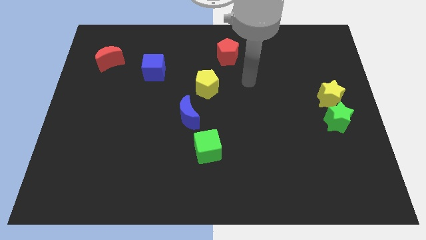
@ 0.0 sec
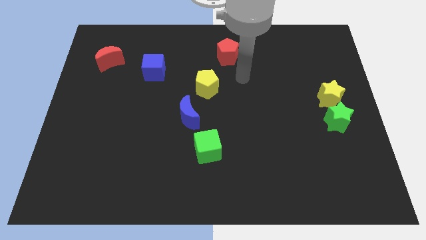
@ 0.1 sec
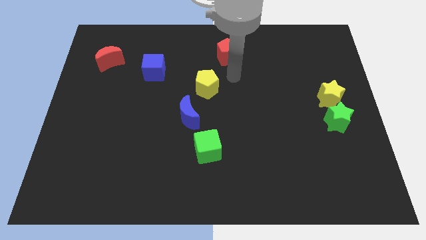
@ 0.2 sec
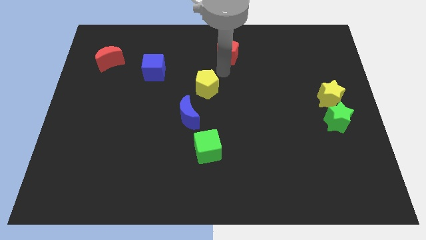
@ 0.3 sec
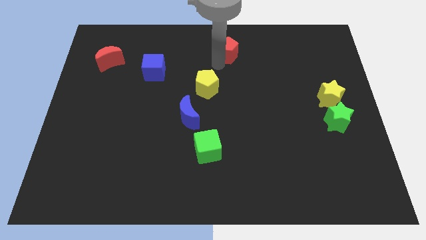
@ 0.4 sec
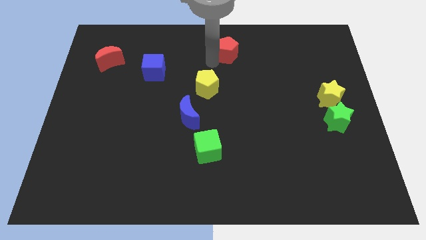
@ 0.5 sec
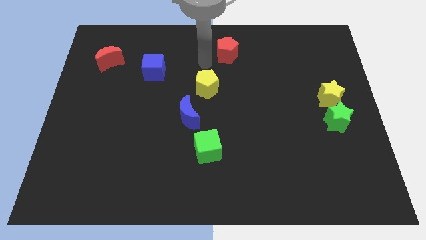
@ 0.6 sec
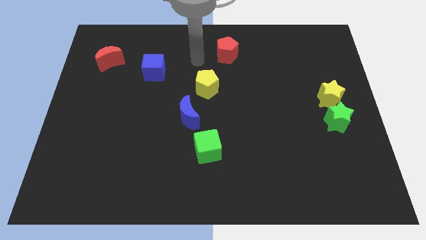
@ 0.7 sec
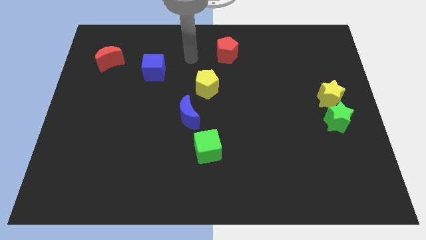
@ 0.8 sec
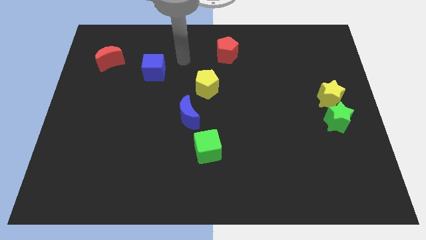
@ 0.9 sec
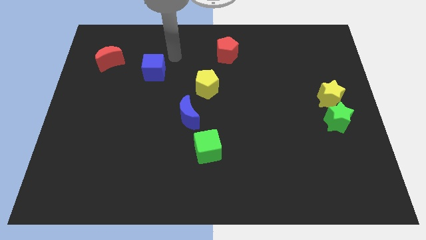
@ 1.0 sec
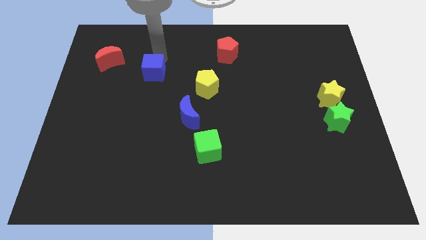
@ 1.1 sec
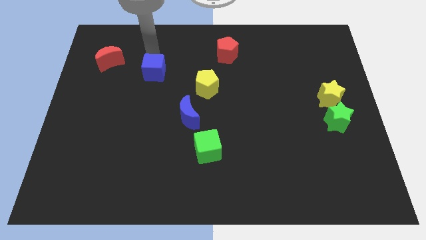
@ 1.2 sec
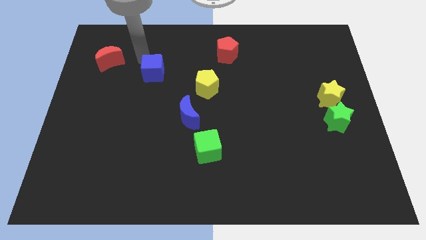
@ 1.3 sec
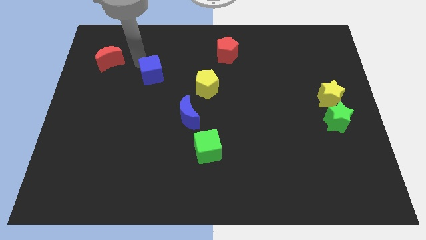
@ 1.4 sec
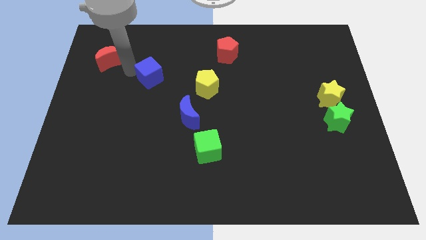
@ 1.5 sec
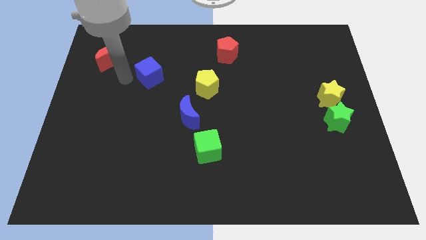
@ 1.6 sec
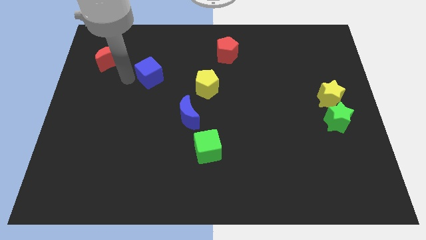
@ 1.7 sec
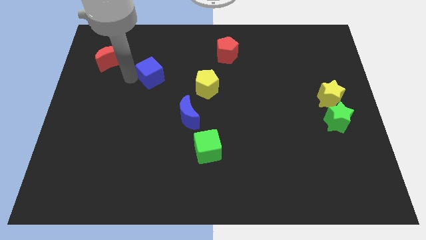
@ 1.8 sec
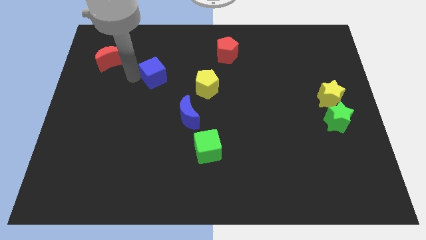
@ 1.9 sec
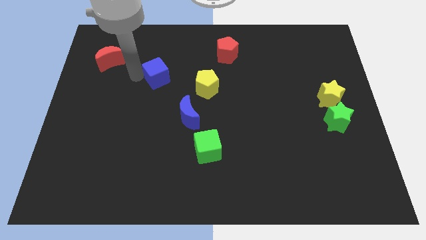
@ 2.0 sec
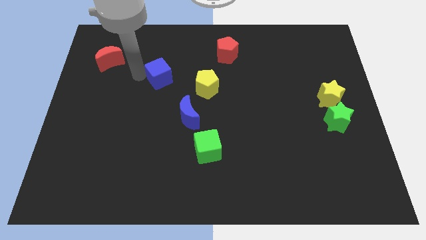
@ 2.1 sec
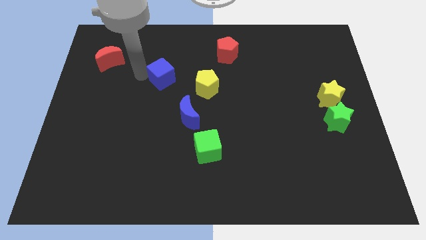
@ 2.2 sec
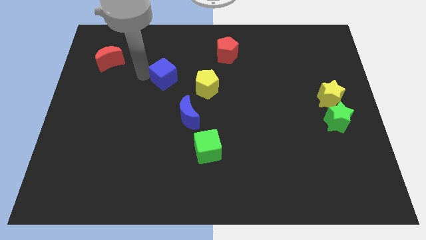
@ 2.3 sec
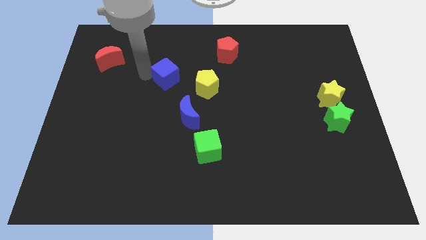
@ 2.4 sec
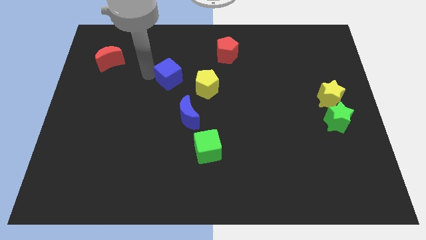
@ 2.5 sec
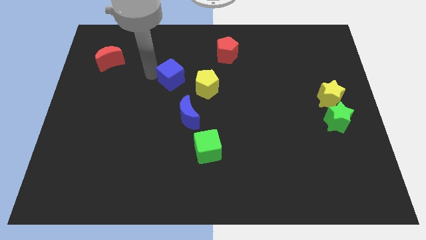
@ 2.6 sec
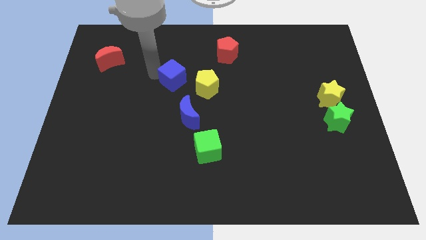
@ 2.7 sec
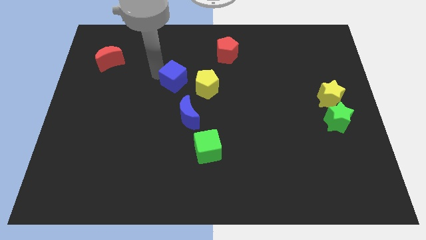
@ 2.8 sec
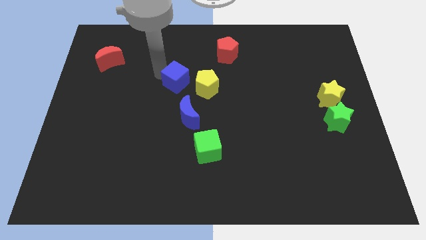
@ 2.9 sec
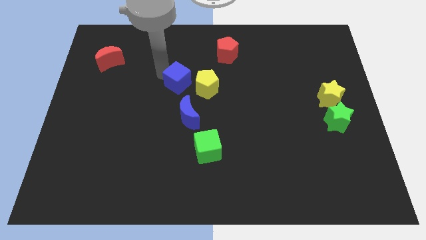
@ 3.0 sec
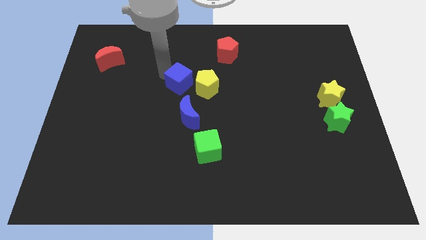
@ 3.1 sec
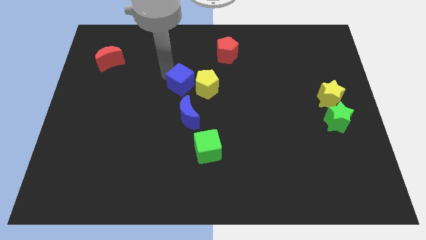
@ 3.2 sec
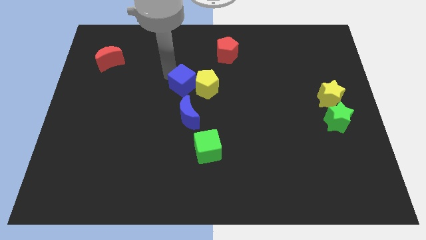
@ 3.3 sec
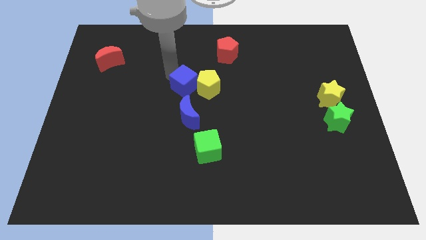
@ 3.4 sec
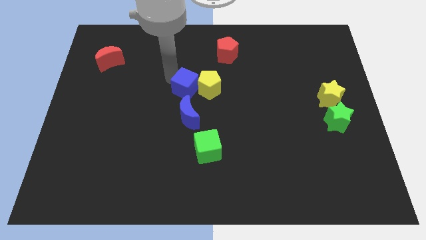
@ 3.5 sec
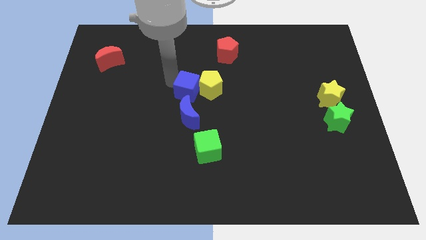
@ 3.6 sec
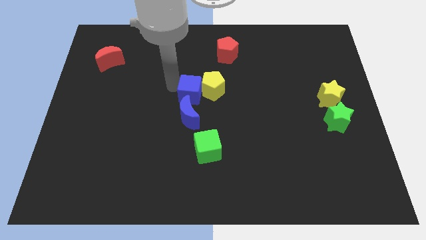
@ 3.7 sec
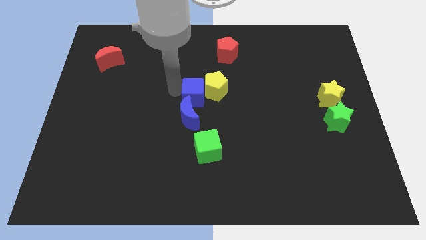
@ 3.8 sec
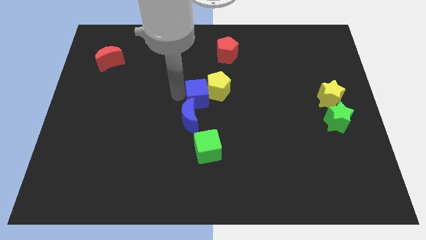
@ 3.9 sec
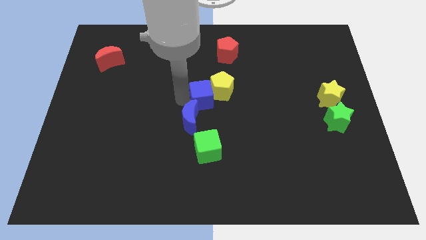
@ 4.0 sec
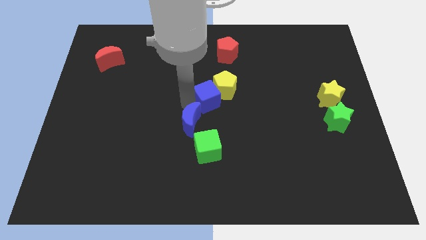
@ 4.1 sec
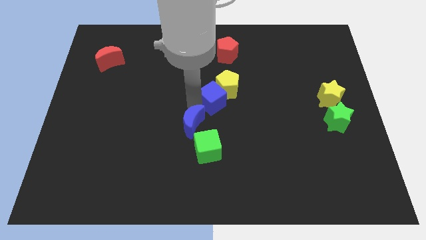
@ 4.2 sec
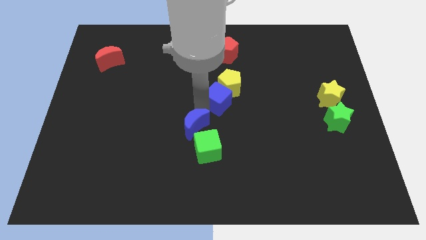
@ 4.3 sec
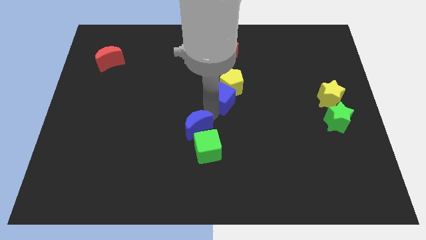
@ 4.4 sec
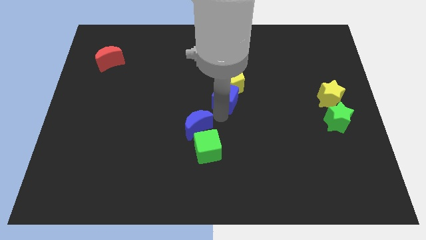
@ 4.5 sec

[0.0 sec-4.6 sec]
move the blue cube below the red pentagon

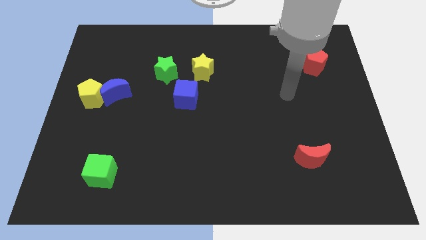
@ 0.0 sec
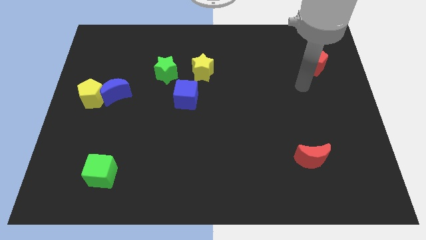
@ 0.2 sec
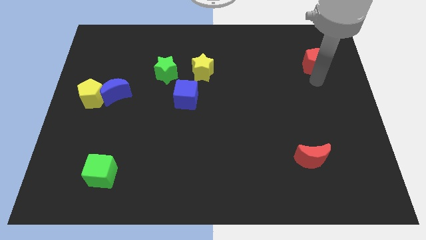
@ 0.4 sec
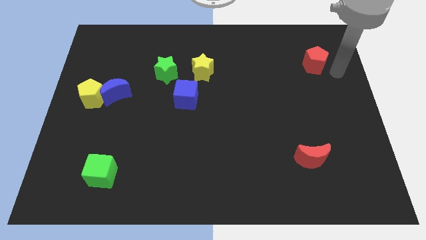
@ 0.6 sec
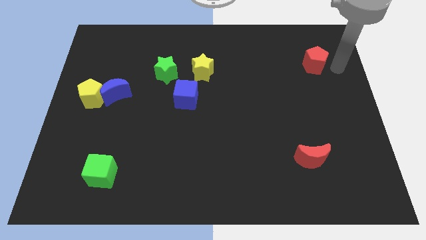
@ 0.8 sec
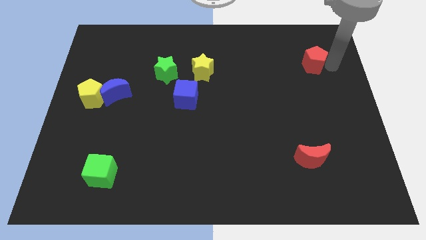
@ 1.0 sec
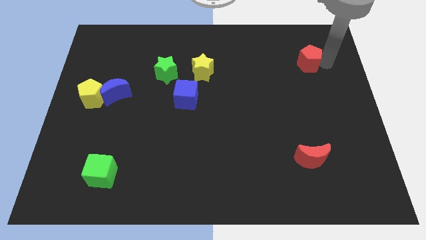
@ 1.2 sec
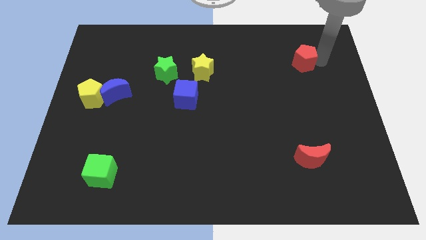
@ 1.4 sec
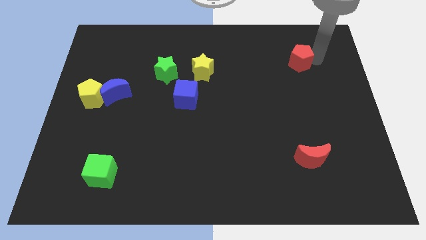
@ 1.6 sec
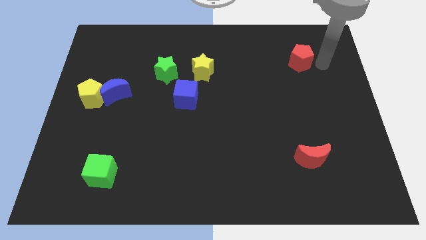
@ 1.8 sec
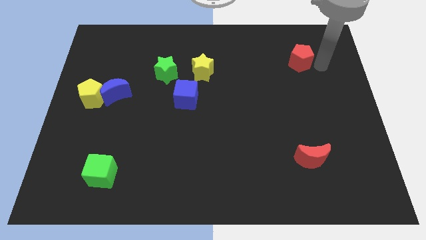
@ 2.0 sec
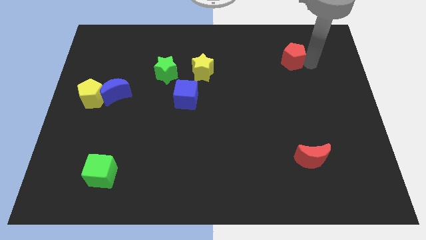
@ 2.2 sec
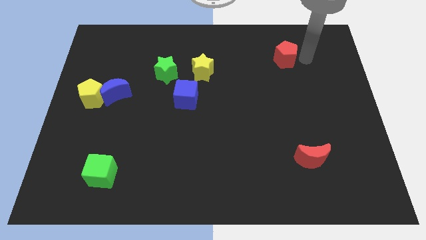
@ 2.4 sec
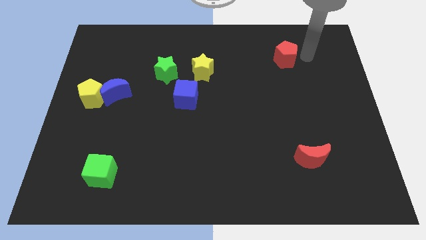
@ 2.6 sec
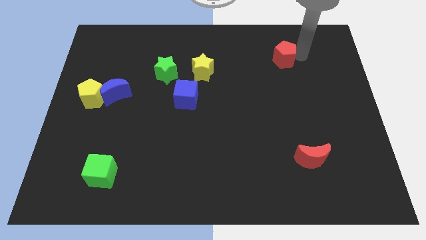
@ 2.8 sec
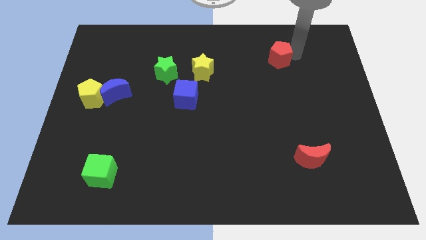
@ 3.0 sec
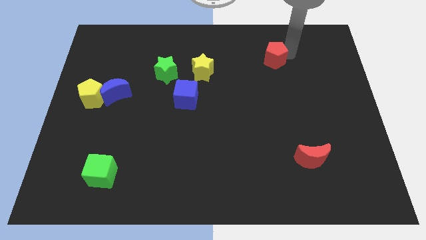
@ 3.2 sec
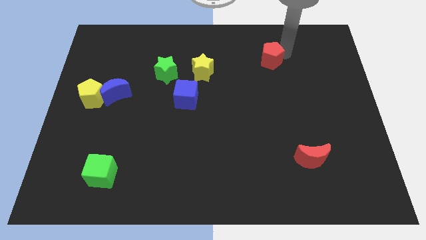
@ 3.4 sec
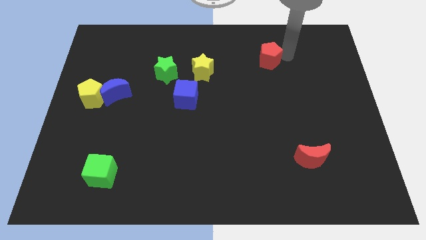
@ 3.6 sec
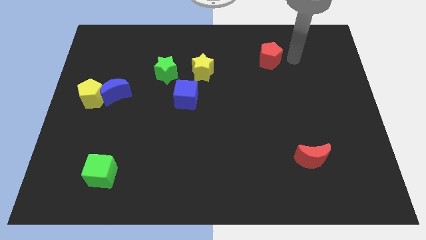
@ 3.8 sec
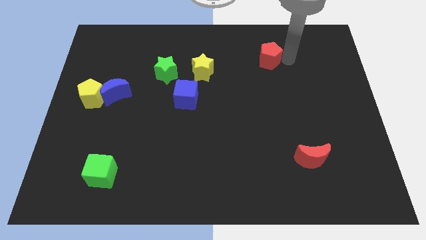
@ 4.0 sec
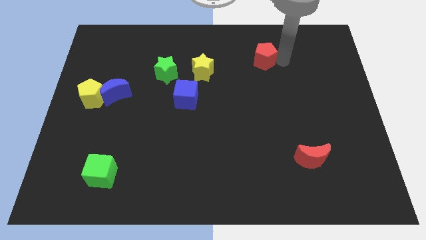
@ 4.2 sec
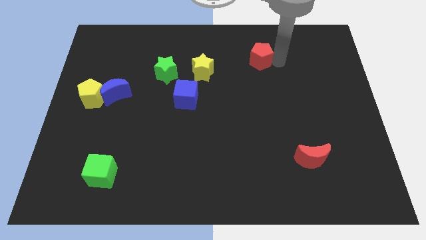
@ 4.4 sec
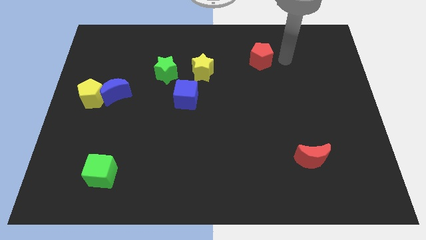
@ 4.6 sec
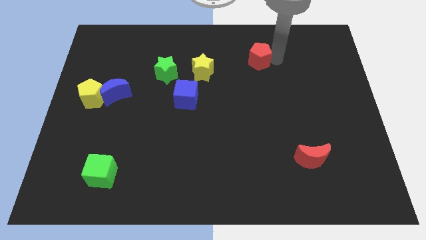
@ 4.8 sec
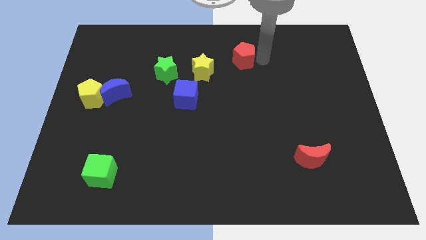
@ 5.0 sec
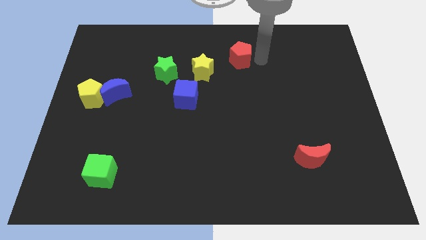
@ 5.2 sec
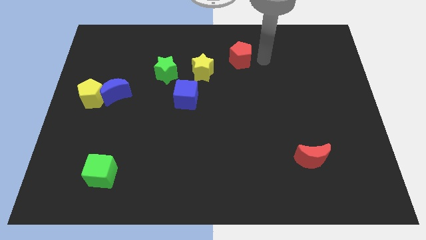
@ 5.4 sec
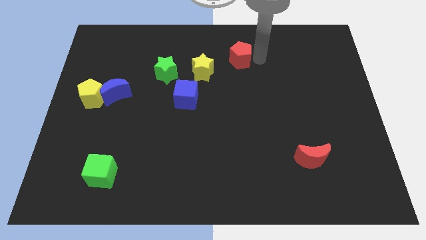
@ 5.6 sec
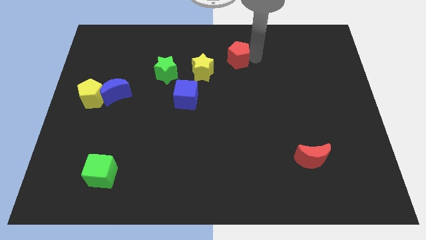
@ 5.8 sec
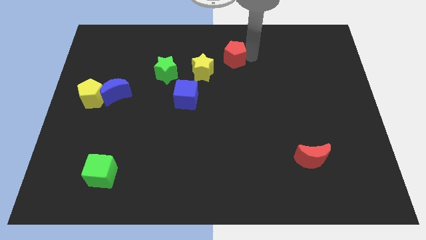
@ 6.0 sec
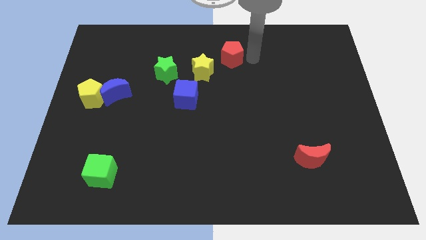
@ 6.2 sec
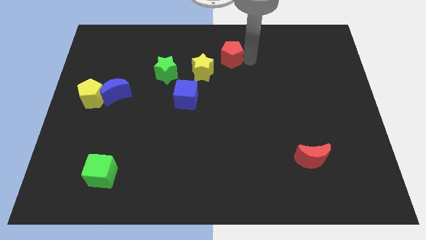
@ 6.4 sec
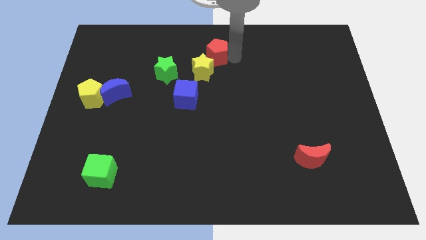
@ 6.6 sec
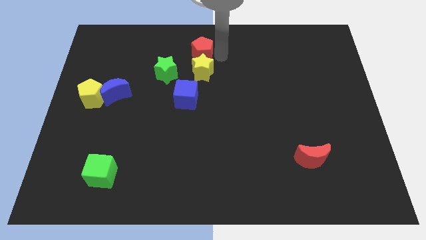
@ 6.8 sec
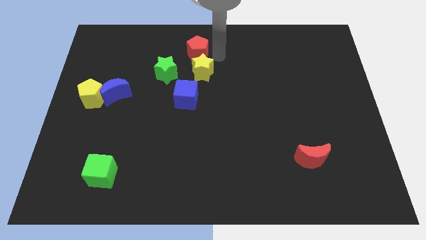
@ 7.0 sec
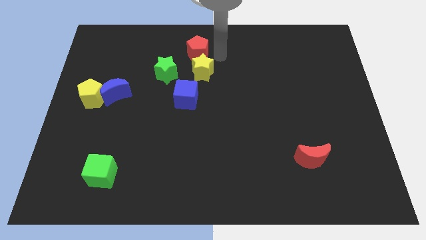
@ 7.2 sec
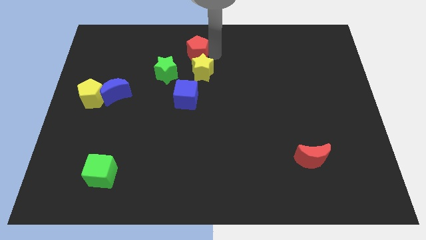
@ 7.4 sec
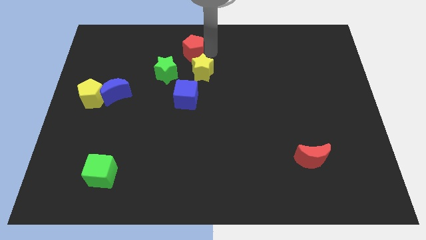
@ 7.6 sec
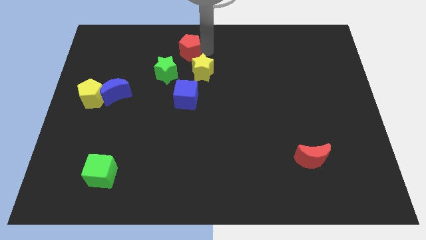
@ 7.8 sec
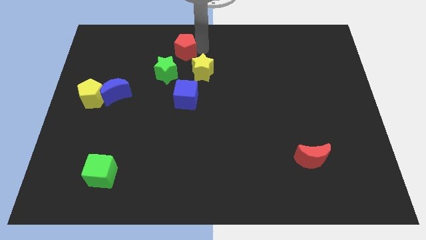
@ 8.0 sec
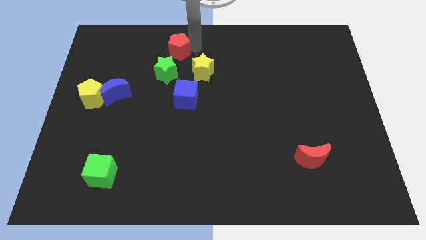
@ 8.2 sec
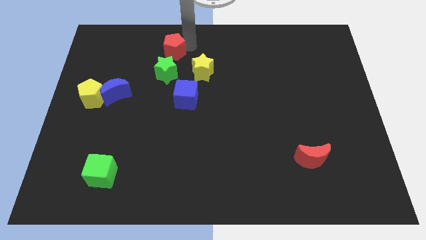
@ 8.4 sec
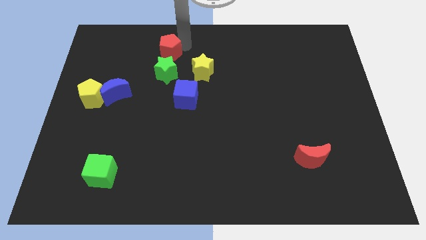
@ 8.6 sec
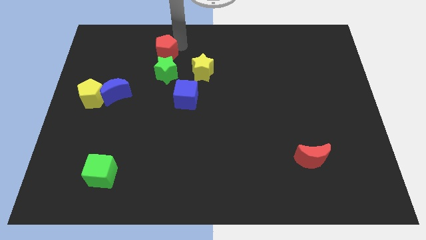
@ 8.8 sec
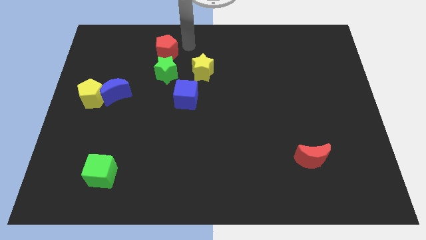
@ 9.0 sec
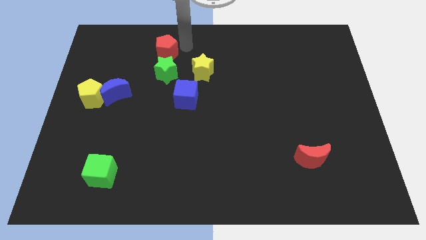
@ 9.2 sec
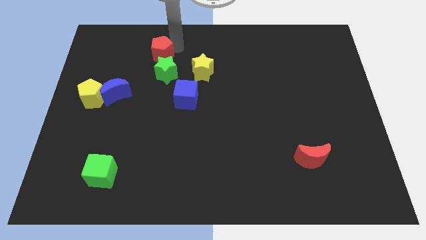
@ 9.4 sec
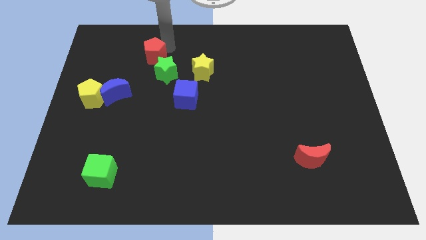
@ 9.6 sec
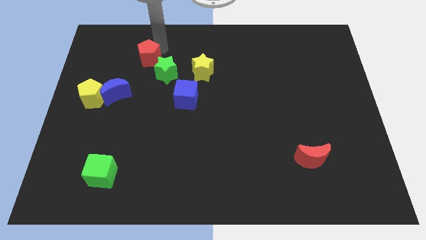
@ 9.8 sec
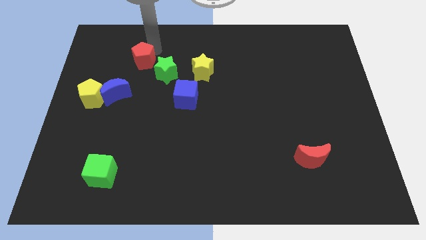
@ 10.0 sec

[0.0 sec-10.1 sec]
push the red pentagon to the left side of the green star
